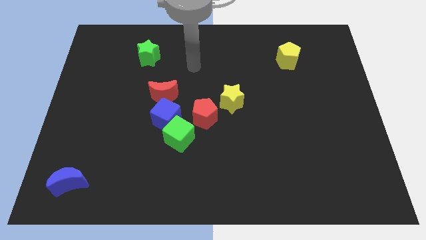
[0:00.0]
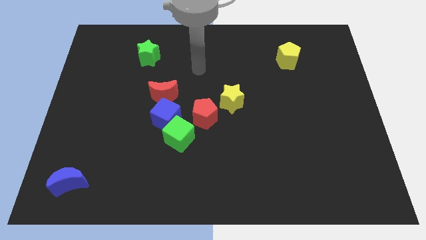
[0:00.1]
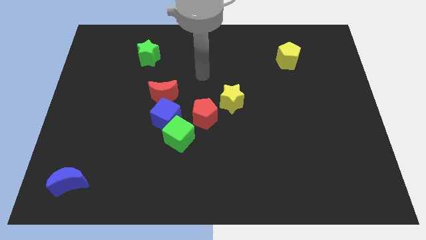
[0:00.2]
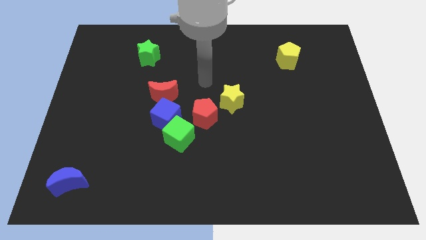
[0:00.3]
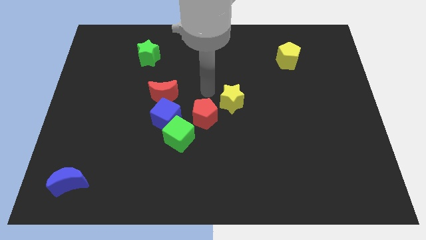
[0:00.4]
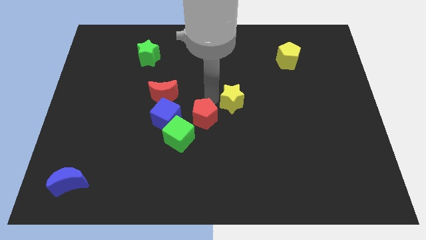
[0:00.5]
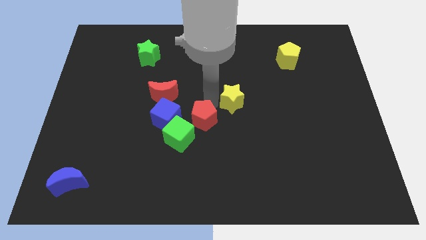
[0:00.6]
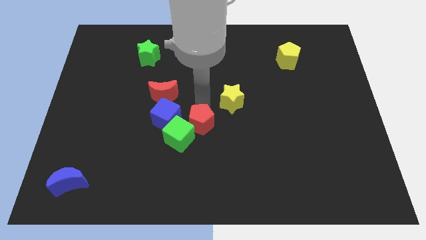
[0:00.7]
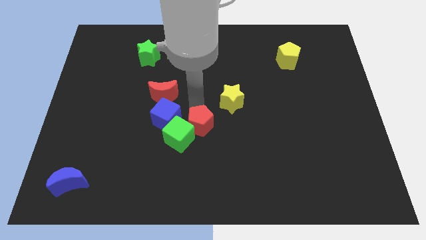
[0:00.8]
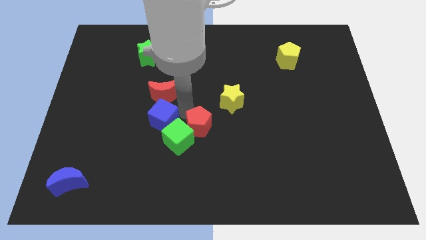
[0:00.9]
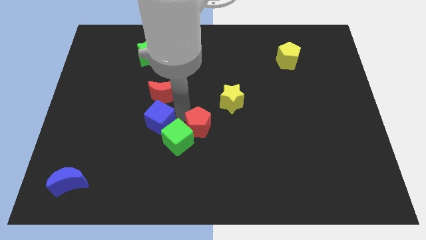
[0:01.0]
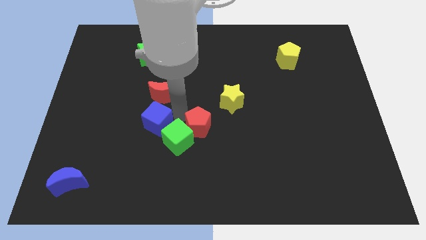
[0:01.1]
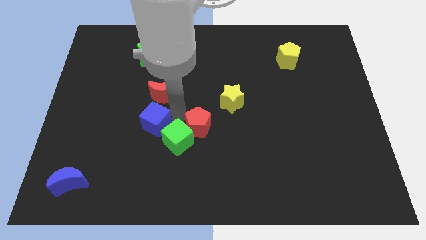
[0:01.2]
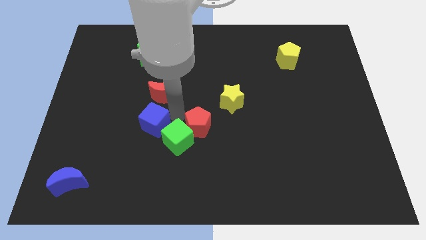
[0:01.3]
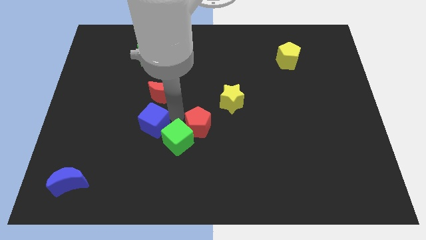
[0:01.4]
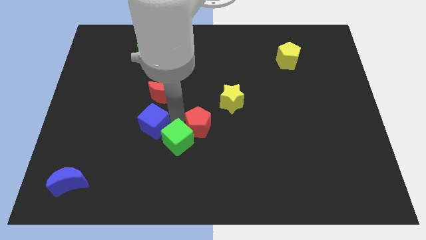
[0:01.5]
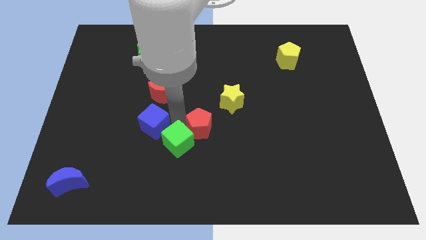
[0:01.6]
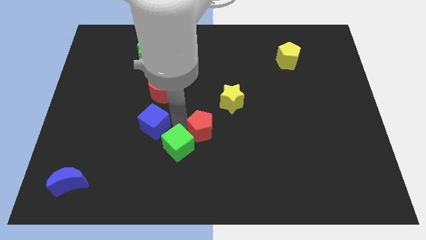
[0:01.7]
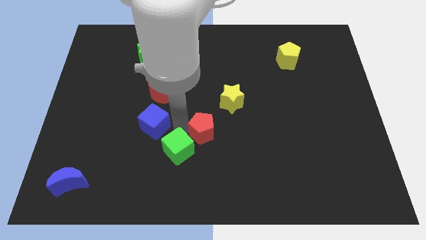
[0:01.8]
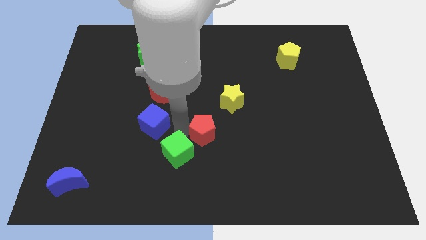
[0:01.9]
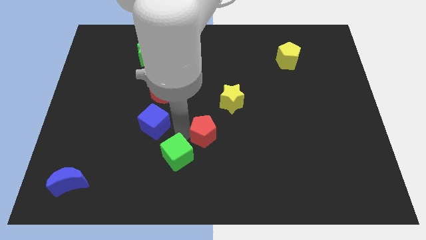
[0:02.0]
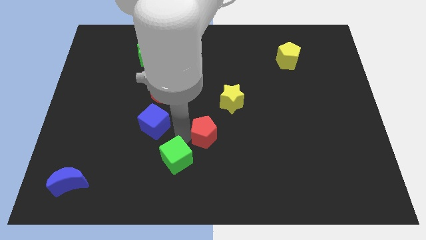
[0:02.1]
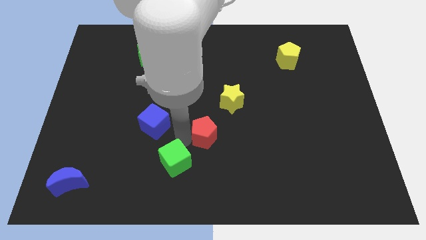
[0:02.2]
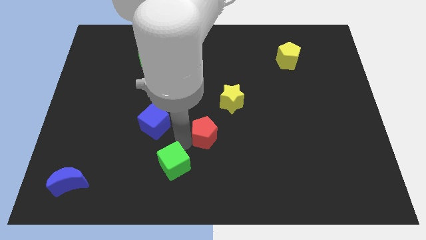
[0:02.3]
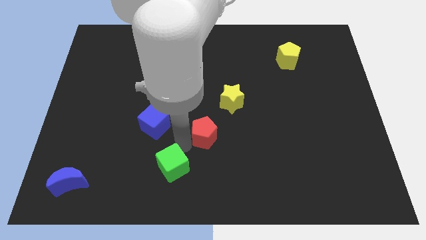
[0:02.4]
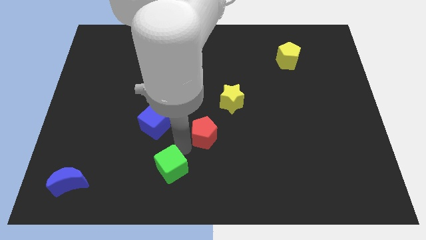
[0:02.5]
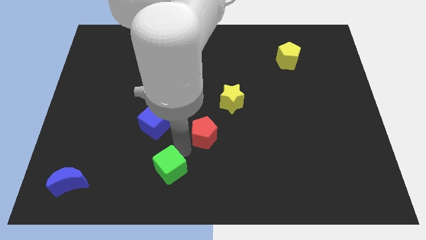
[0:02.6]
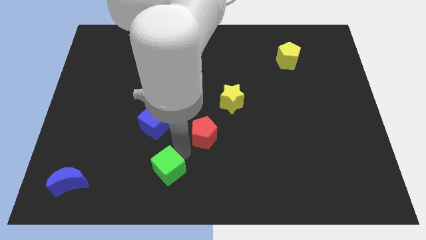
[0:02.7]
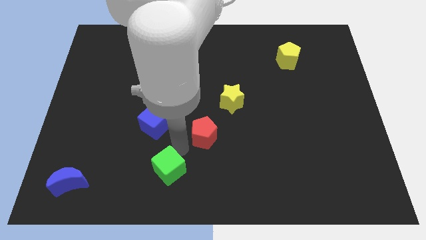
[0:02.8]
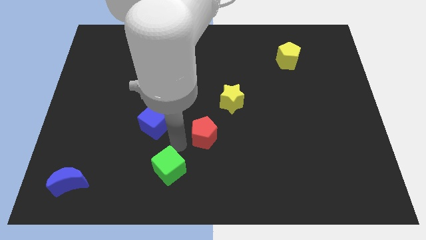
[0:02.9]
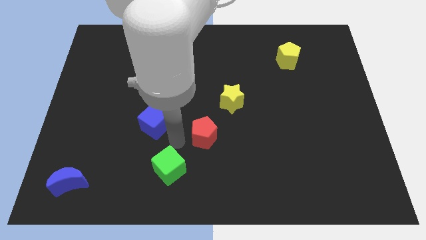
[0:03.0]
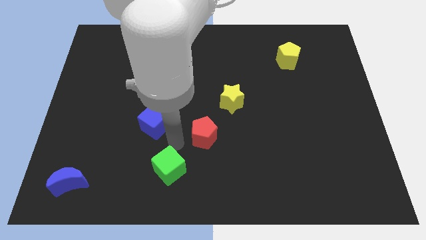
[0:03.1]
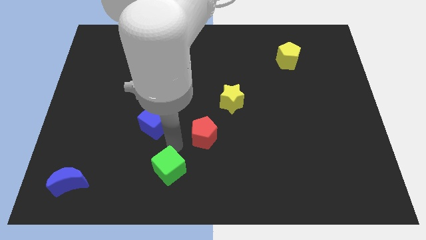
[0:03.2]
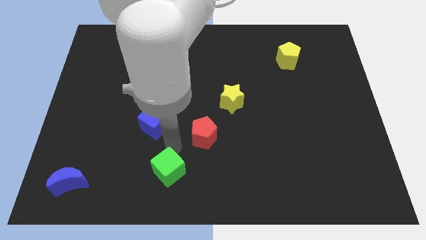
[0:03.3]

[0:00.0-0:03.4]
separate the green cube from the blue cube and red pentagon

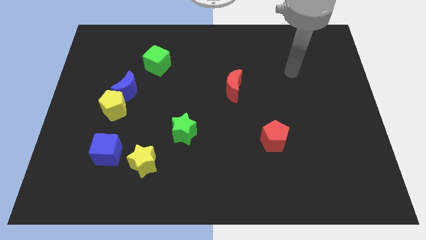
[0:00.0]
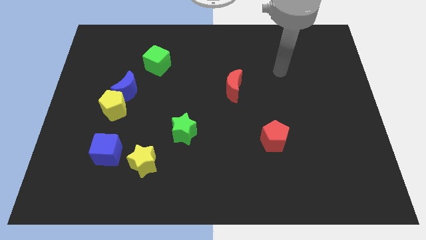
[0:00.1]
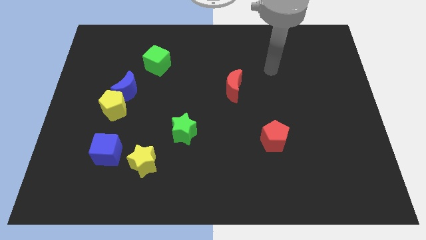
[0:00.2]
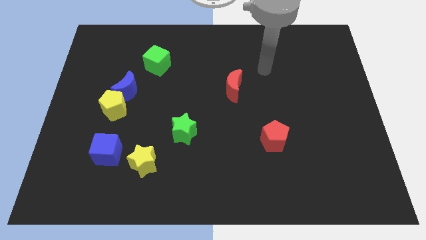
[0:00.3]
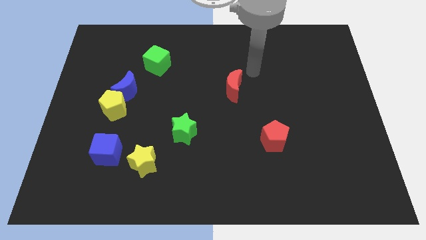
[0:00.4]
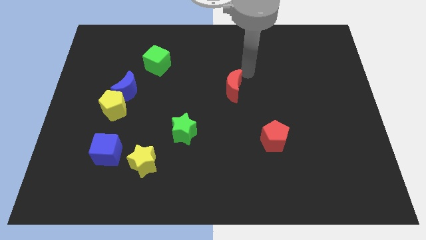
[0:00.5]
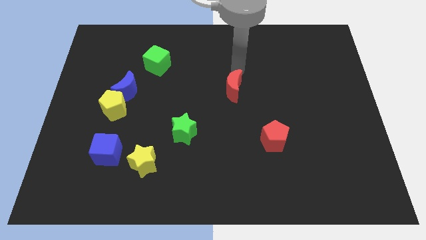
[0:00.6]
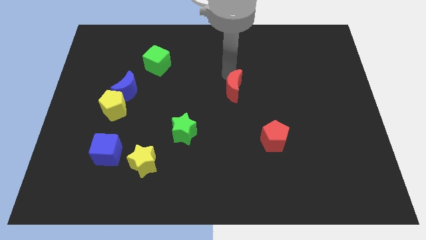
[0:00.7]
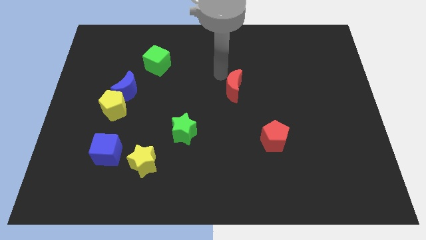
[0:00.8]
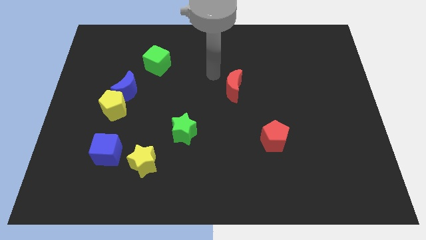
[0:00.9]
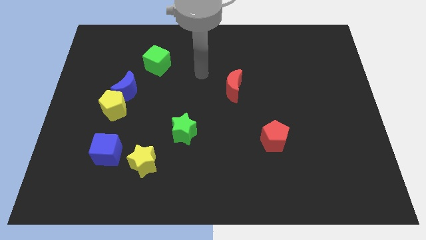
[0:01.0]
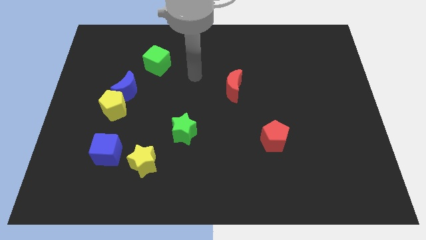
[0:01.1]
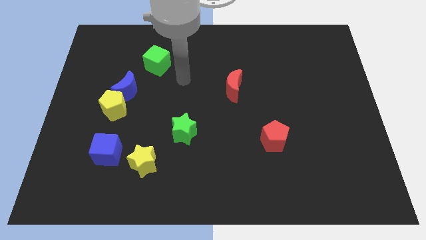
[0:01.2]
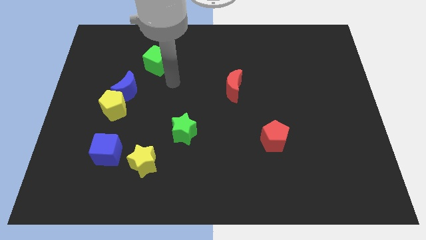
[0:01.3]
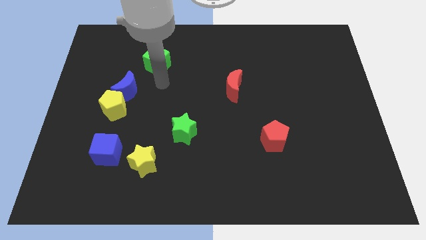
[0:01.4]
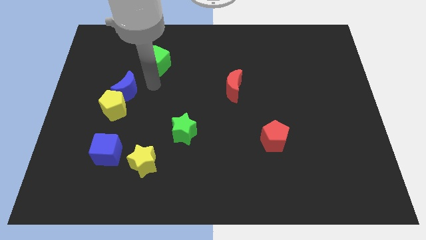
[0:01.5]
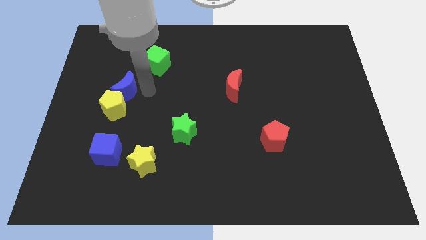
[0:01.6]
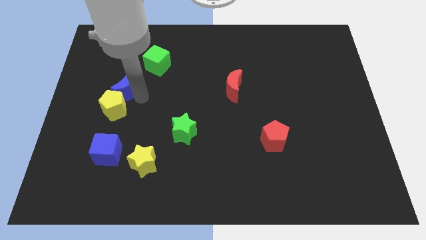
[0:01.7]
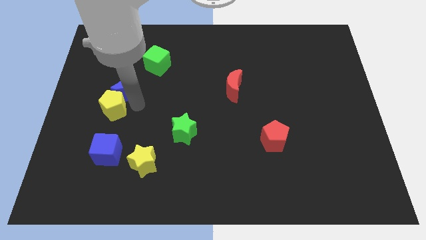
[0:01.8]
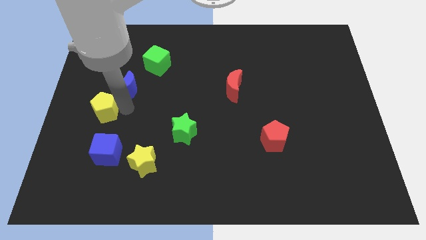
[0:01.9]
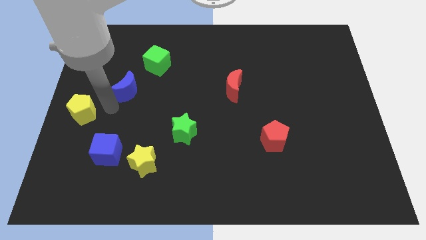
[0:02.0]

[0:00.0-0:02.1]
move the blue moon away from the yellow pentagon

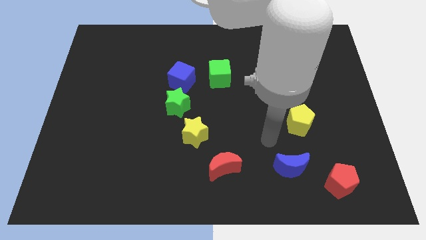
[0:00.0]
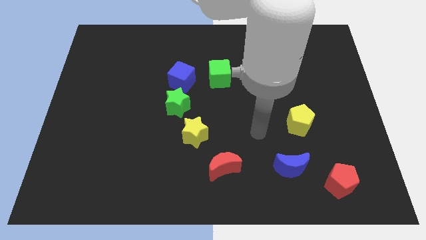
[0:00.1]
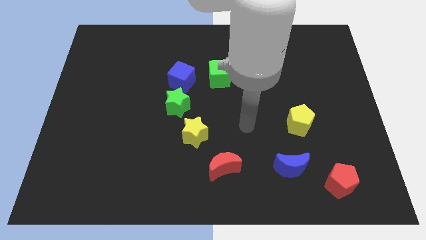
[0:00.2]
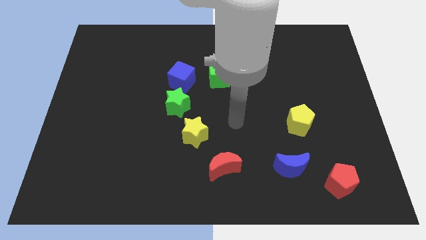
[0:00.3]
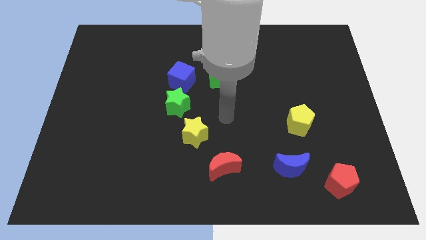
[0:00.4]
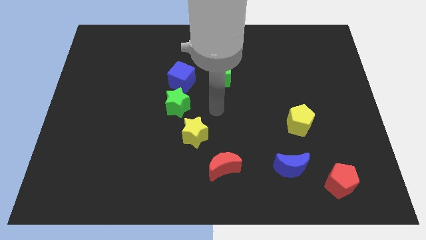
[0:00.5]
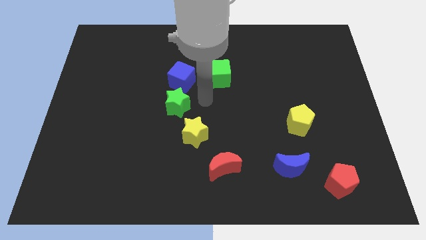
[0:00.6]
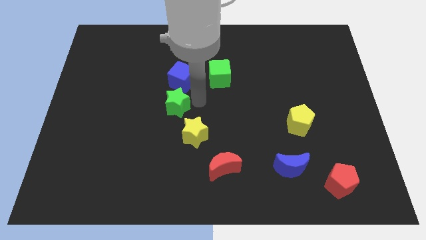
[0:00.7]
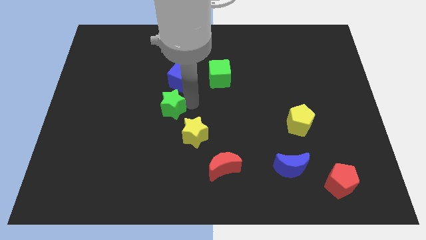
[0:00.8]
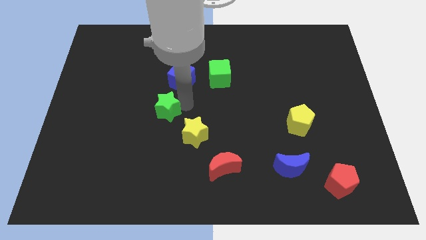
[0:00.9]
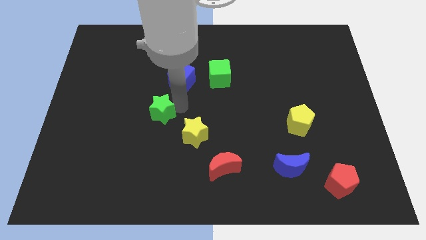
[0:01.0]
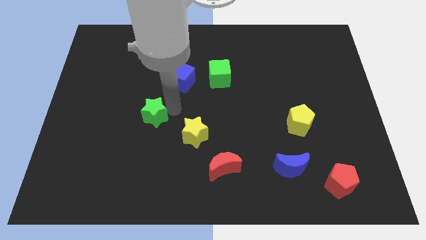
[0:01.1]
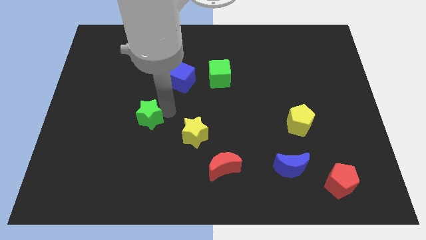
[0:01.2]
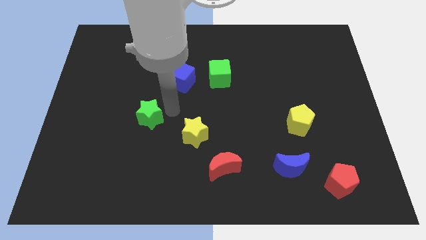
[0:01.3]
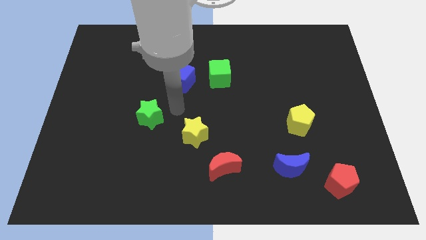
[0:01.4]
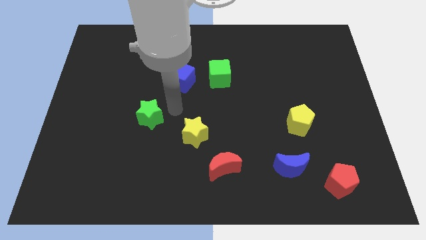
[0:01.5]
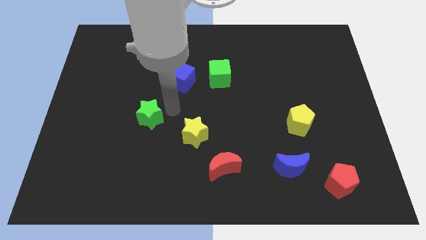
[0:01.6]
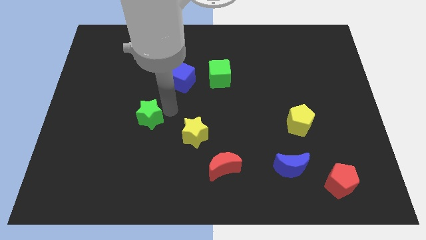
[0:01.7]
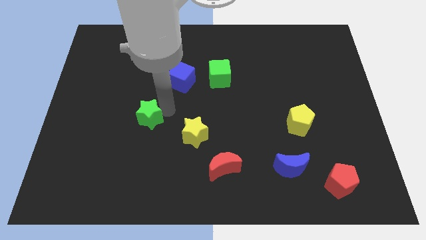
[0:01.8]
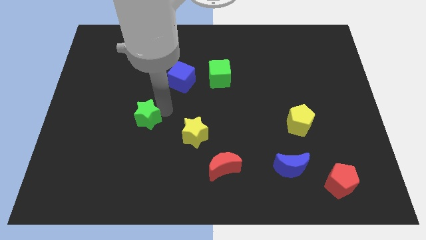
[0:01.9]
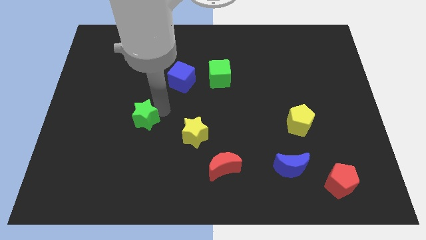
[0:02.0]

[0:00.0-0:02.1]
pull the green star apart from the blue cube and yellow star

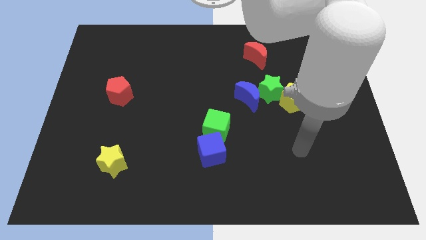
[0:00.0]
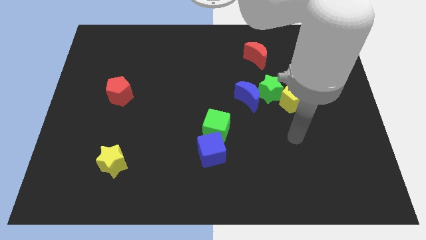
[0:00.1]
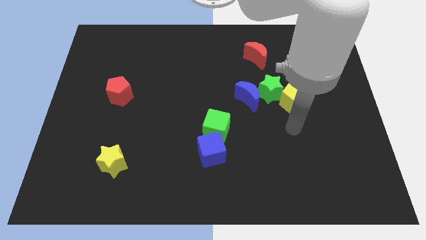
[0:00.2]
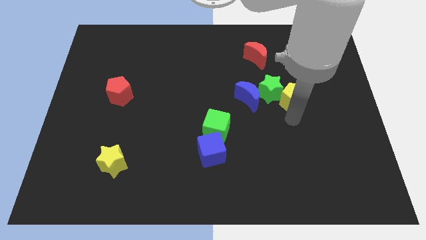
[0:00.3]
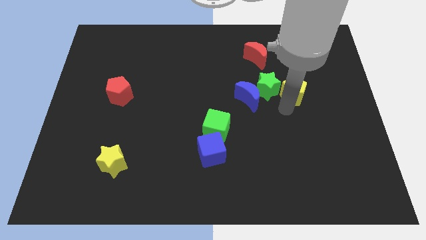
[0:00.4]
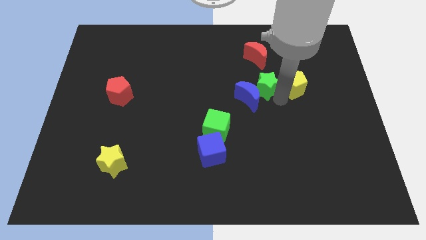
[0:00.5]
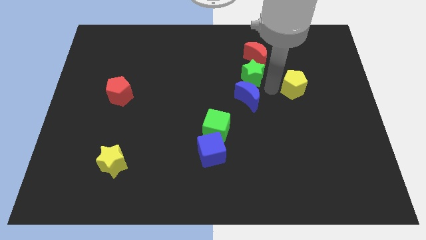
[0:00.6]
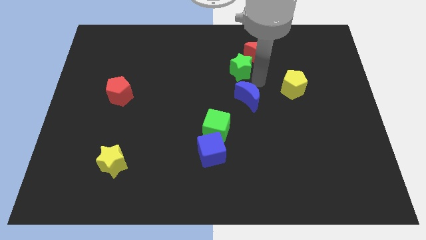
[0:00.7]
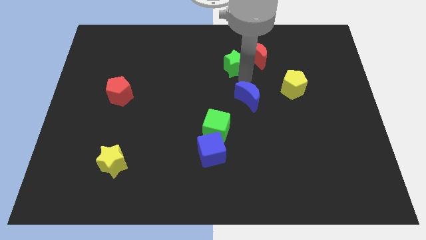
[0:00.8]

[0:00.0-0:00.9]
separate the blue moon from the green star

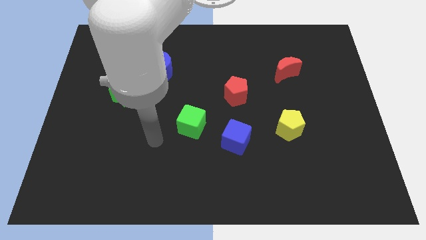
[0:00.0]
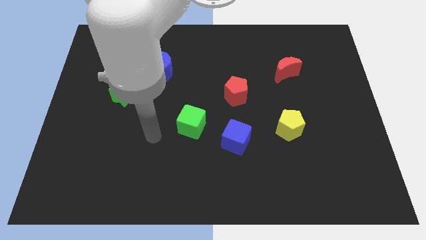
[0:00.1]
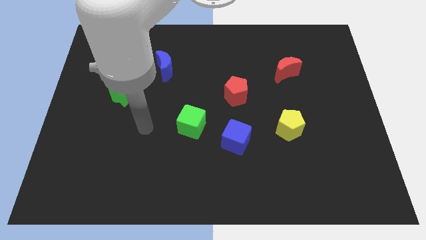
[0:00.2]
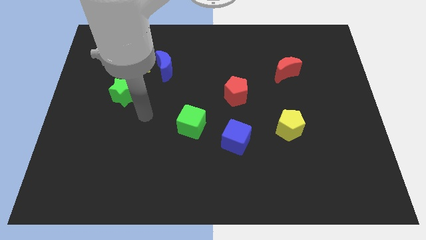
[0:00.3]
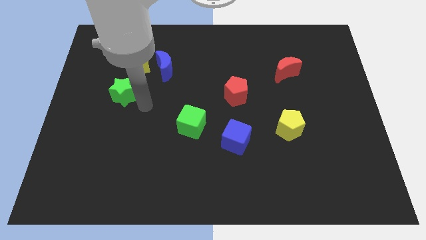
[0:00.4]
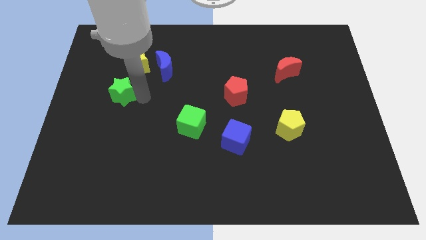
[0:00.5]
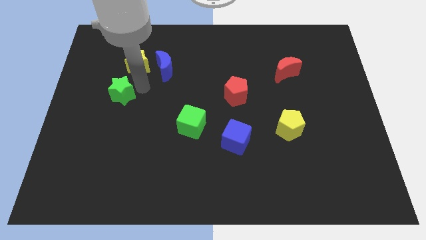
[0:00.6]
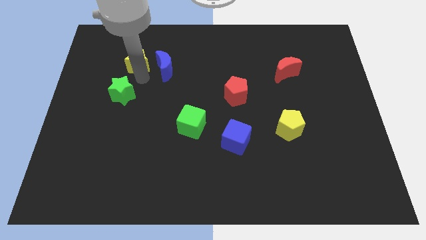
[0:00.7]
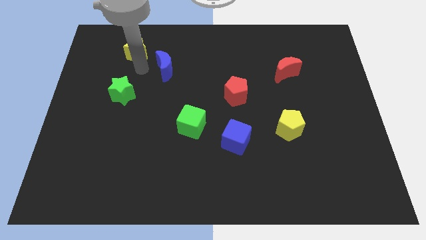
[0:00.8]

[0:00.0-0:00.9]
pull the blue moon apart from the yellow star
